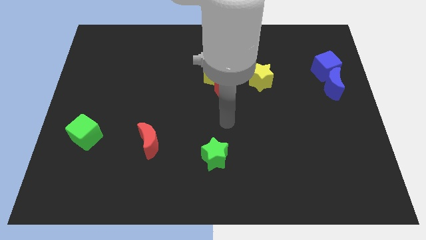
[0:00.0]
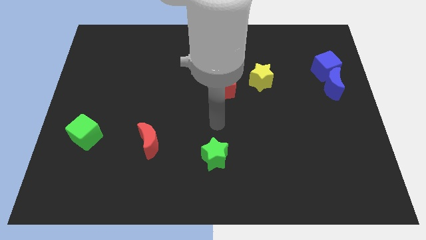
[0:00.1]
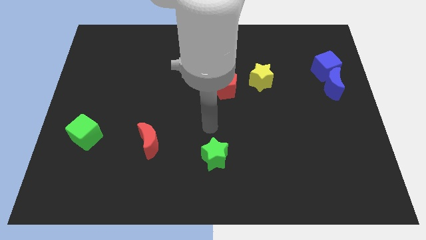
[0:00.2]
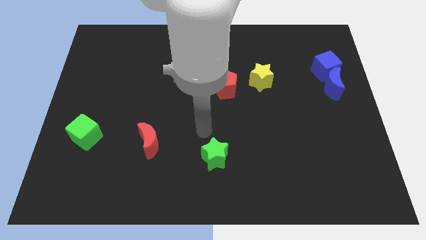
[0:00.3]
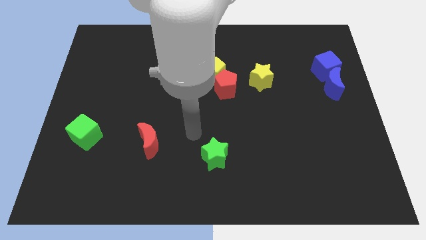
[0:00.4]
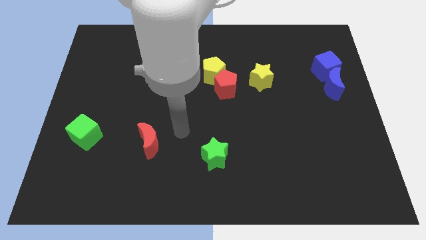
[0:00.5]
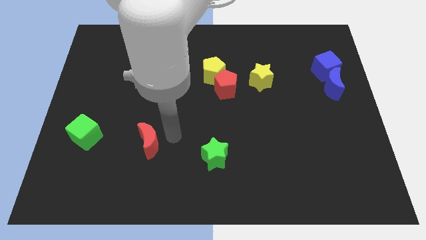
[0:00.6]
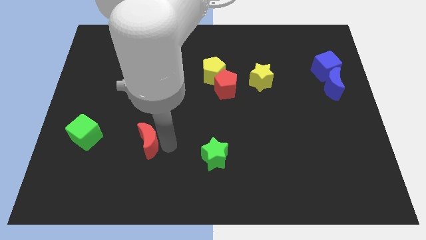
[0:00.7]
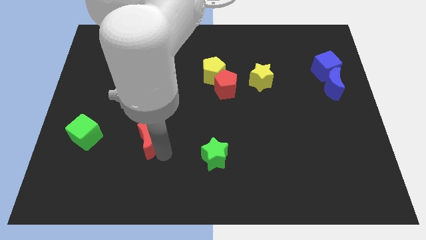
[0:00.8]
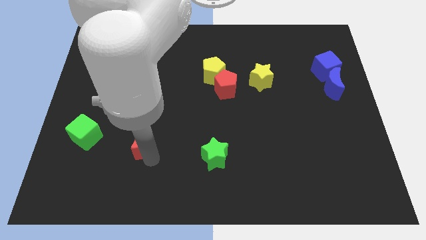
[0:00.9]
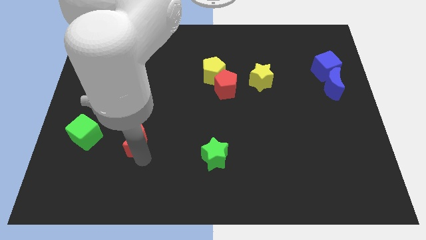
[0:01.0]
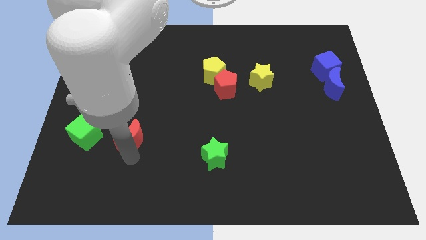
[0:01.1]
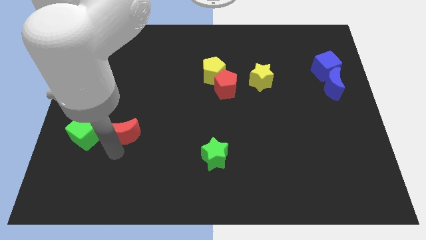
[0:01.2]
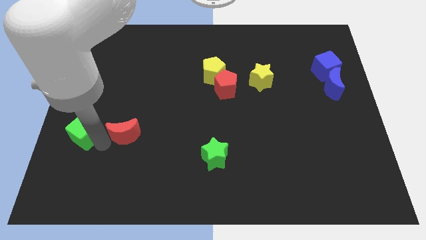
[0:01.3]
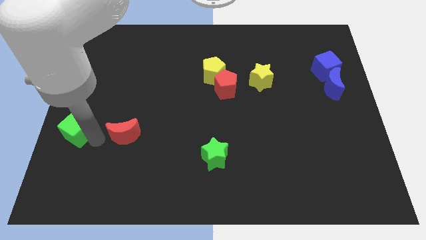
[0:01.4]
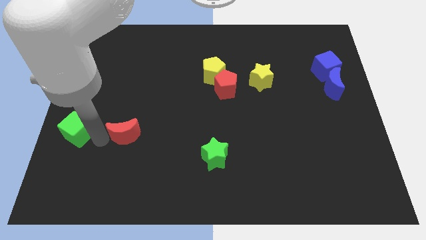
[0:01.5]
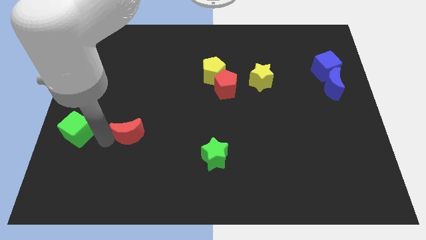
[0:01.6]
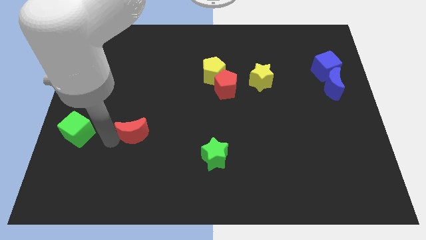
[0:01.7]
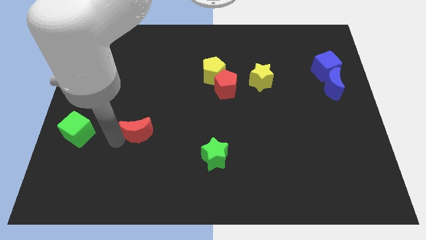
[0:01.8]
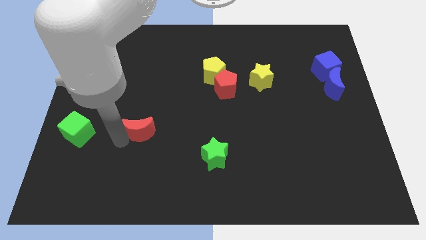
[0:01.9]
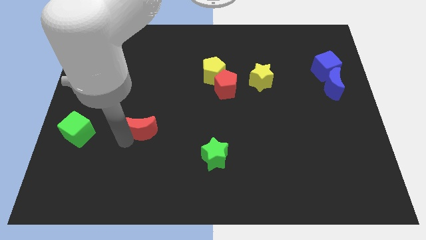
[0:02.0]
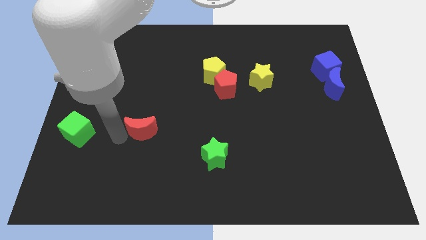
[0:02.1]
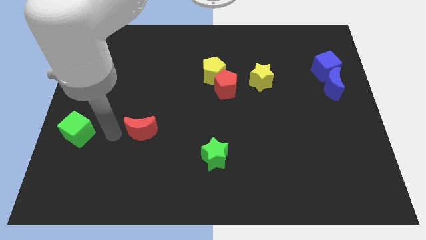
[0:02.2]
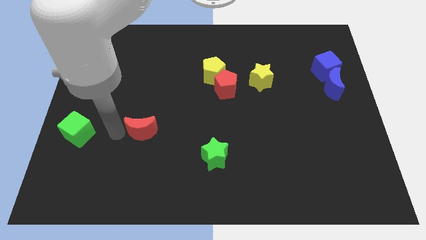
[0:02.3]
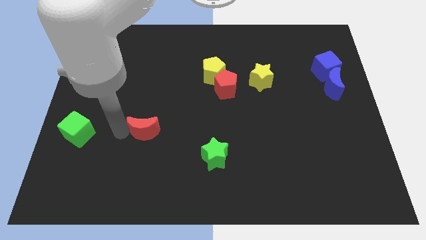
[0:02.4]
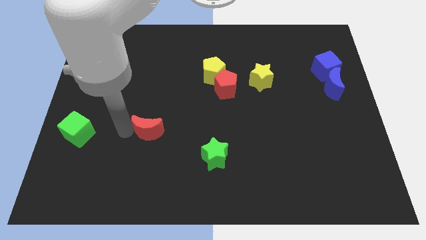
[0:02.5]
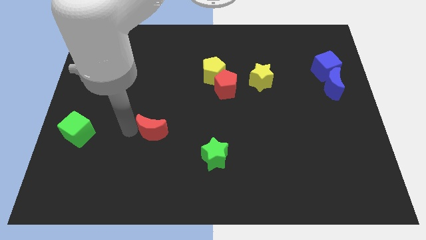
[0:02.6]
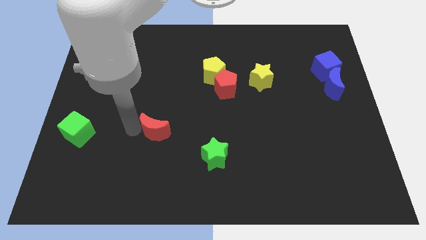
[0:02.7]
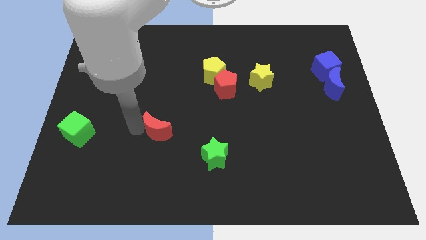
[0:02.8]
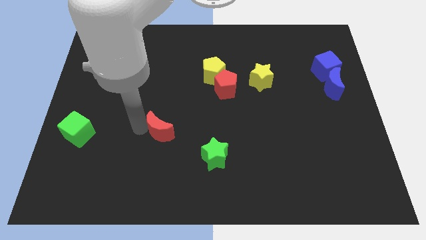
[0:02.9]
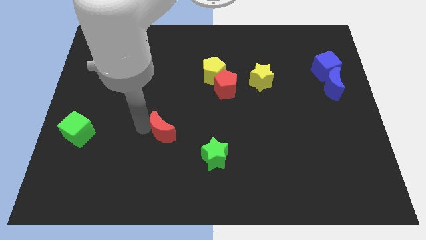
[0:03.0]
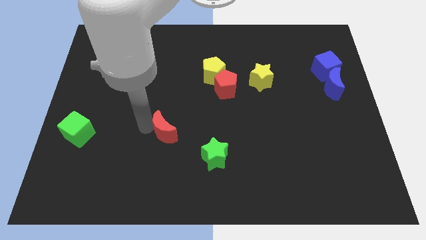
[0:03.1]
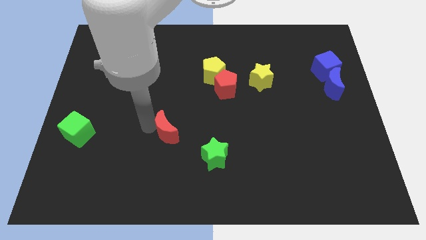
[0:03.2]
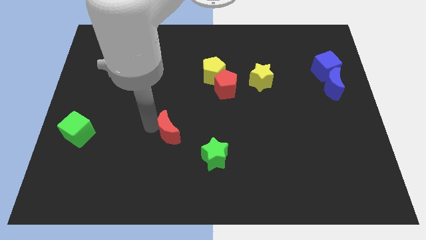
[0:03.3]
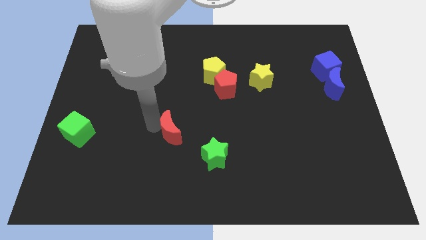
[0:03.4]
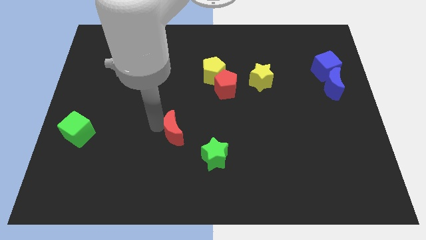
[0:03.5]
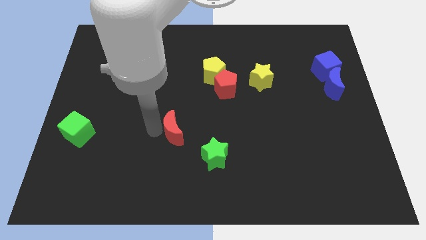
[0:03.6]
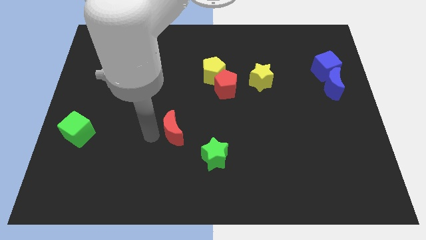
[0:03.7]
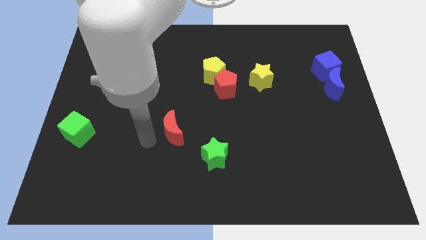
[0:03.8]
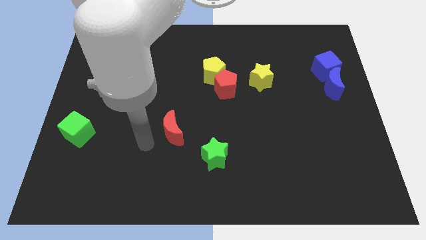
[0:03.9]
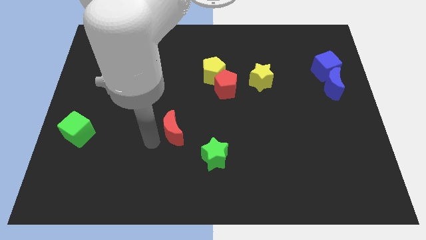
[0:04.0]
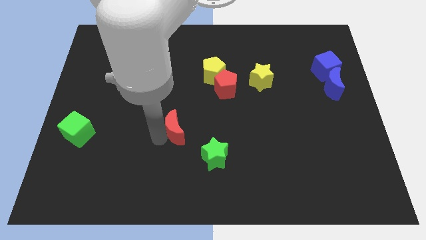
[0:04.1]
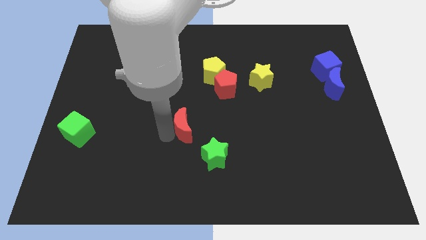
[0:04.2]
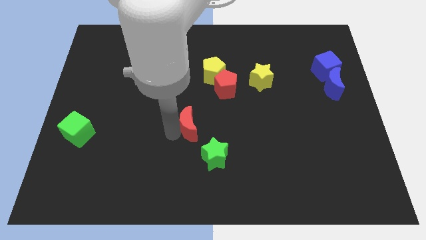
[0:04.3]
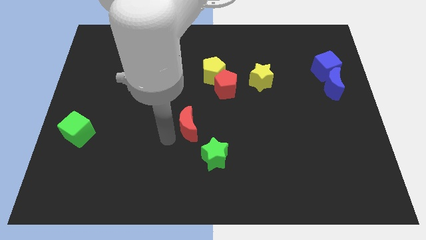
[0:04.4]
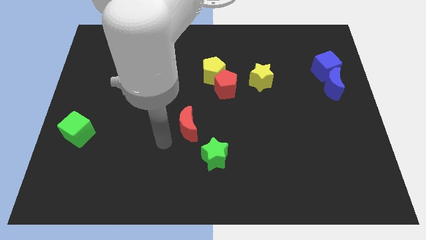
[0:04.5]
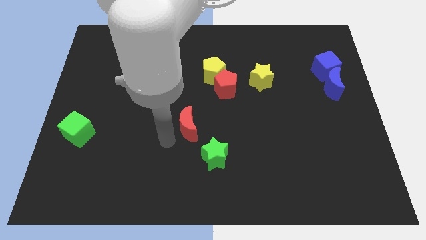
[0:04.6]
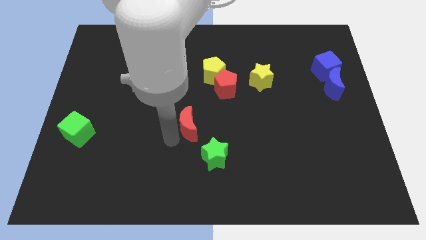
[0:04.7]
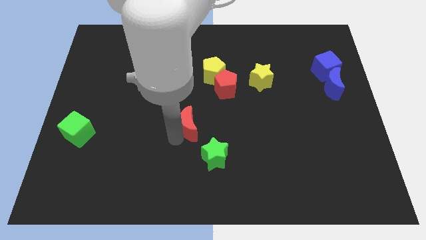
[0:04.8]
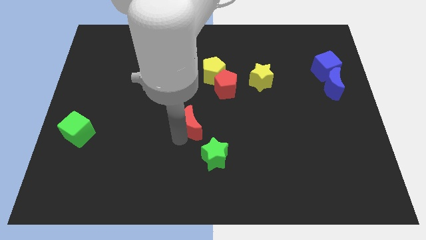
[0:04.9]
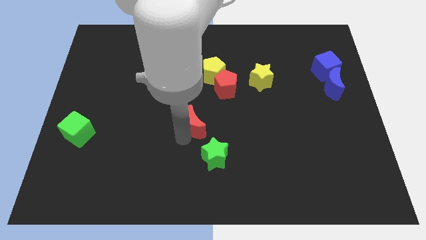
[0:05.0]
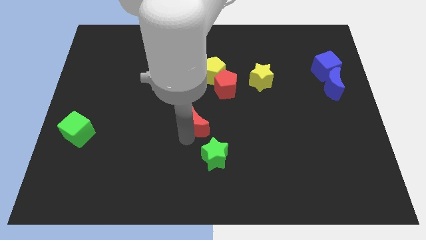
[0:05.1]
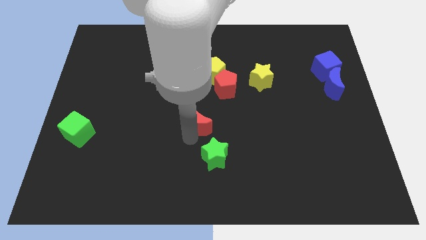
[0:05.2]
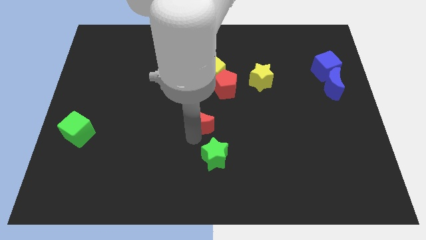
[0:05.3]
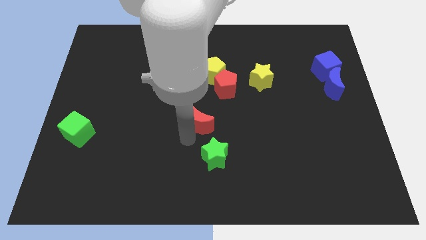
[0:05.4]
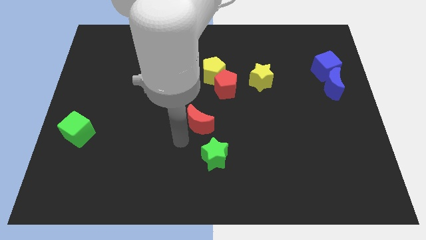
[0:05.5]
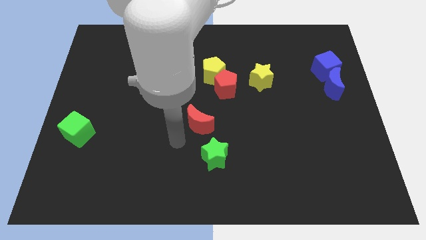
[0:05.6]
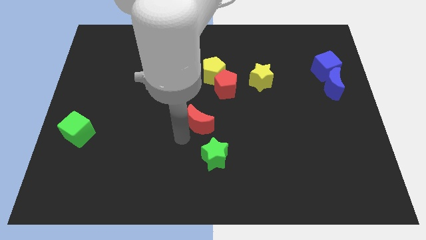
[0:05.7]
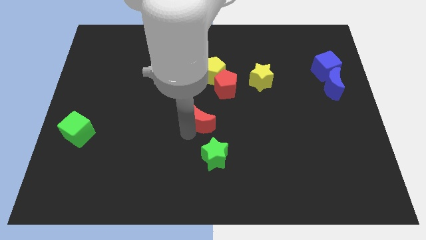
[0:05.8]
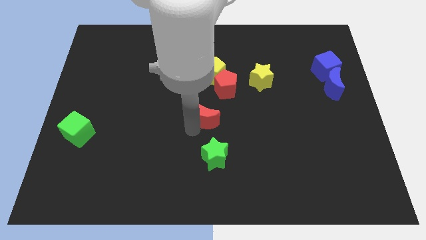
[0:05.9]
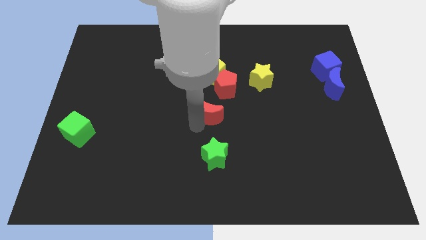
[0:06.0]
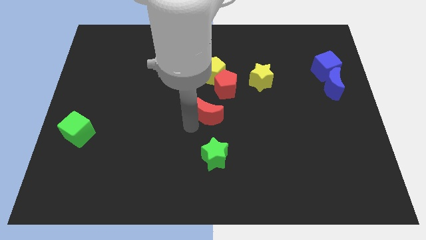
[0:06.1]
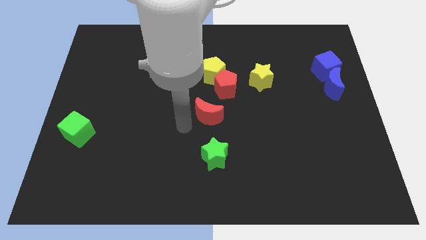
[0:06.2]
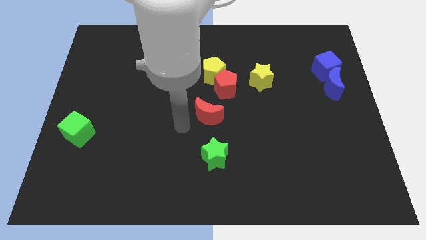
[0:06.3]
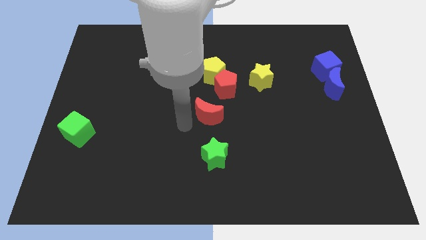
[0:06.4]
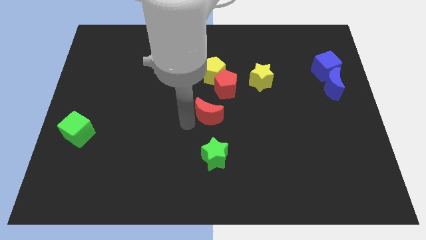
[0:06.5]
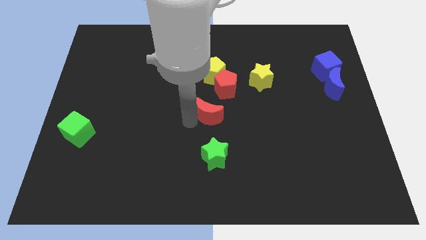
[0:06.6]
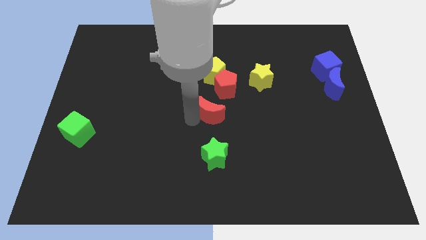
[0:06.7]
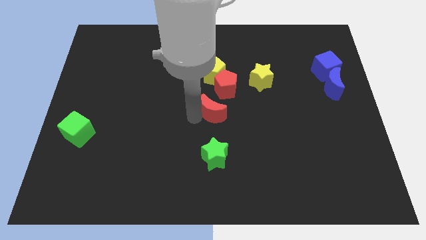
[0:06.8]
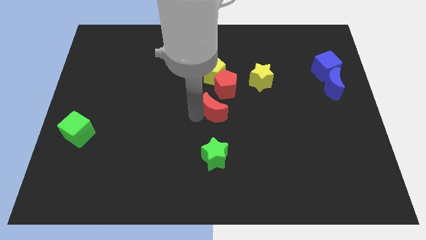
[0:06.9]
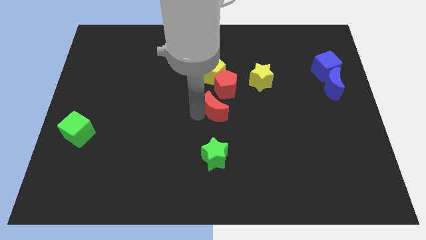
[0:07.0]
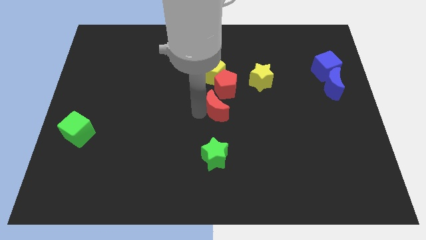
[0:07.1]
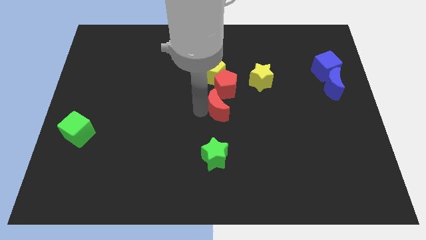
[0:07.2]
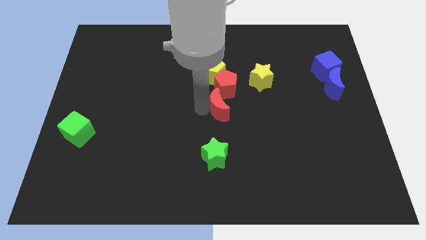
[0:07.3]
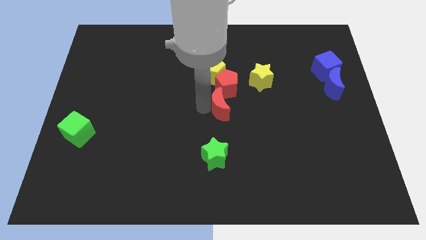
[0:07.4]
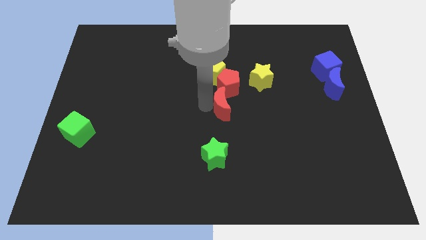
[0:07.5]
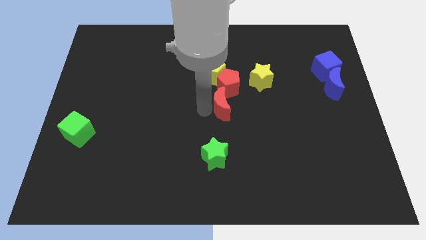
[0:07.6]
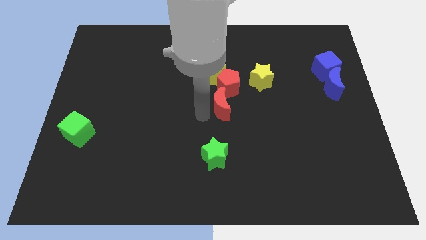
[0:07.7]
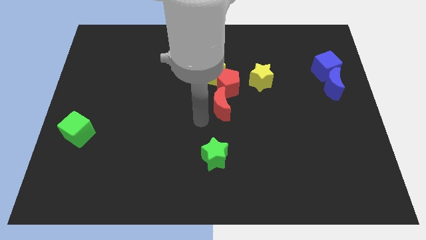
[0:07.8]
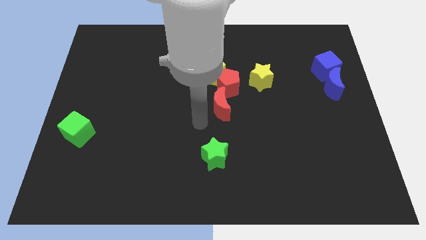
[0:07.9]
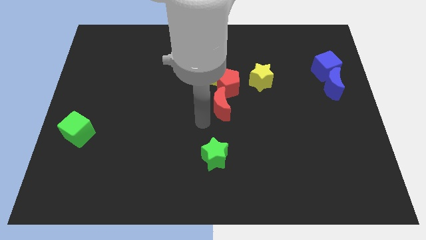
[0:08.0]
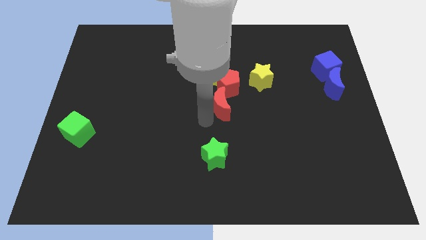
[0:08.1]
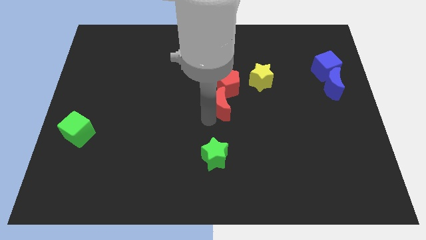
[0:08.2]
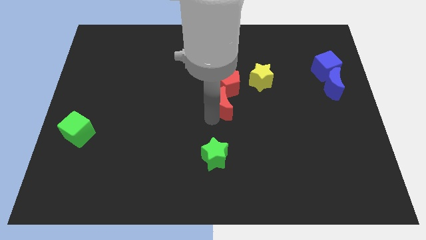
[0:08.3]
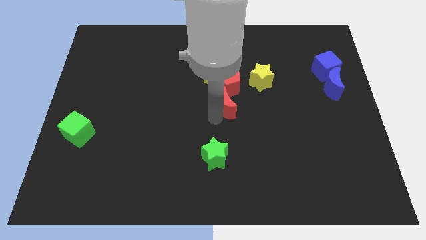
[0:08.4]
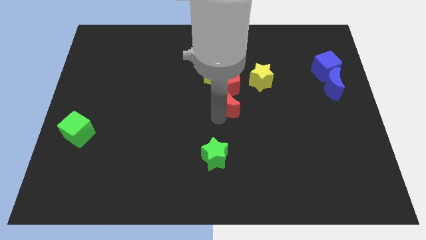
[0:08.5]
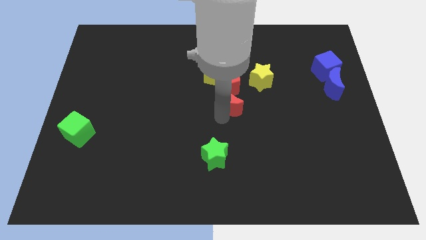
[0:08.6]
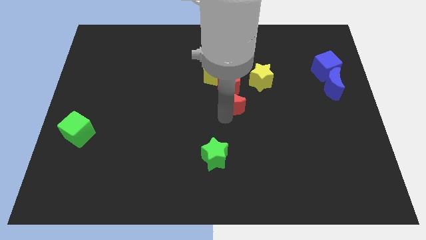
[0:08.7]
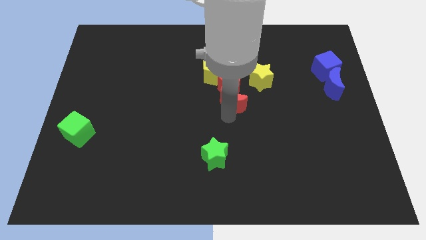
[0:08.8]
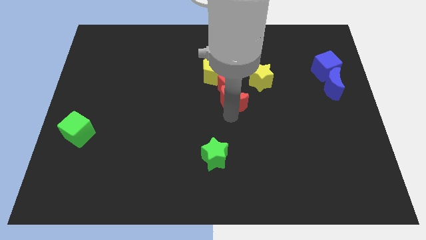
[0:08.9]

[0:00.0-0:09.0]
slide the red moon up and right diagonally
